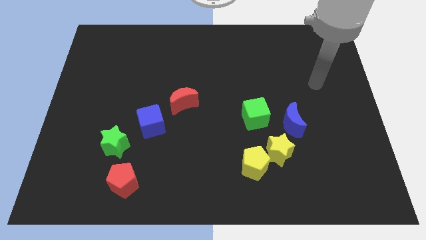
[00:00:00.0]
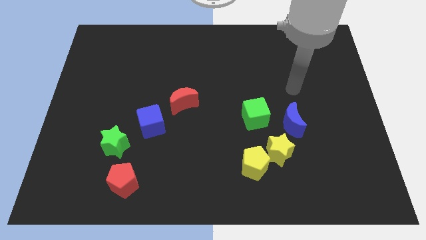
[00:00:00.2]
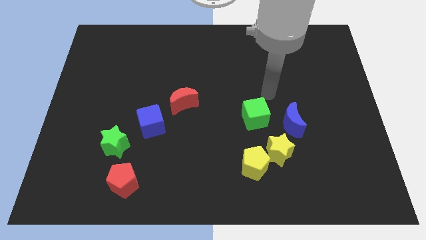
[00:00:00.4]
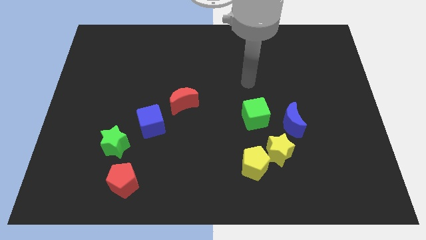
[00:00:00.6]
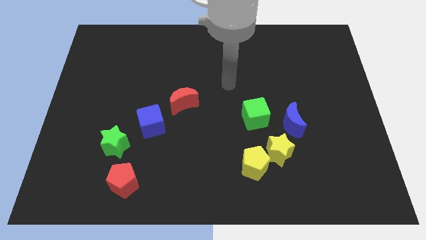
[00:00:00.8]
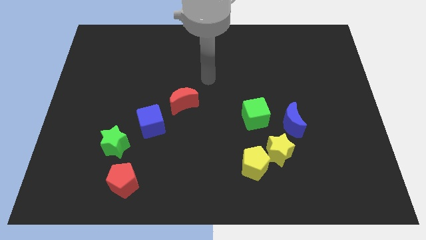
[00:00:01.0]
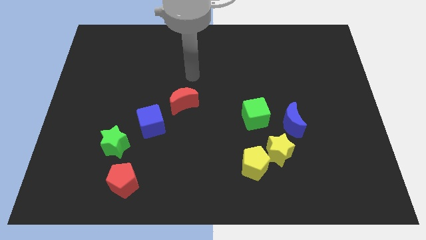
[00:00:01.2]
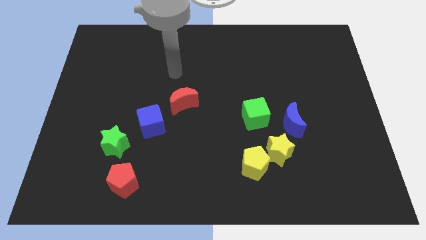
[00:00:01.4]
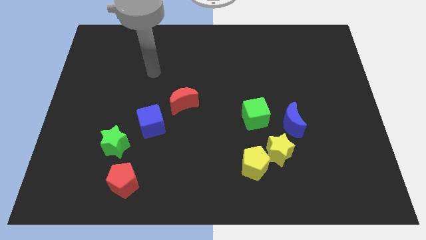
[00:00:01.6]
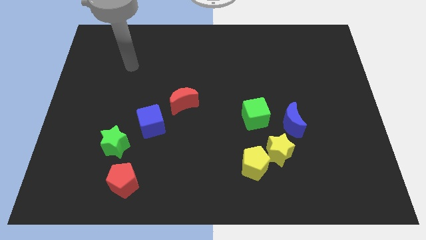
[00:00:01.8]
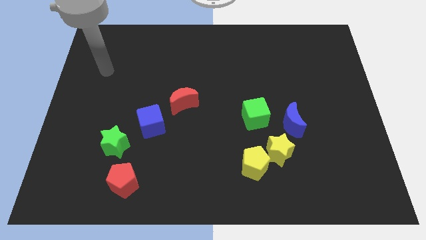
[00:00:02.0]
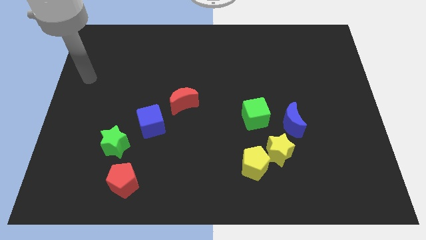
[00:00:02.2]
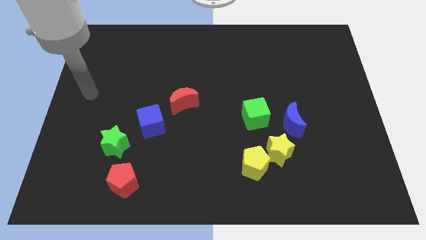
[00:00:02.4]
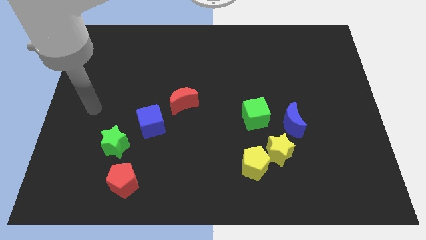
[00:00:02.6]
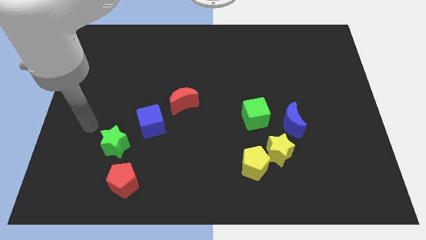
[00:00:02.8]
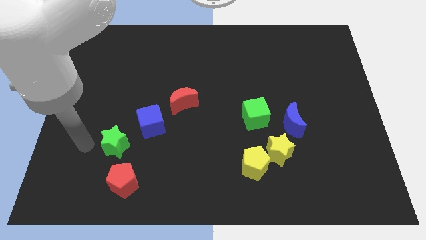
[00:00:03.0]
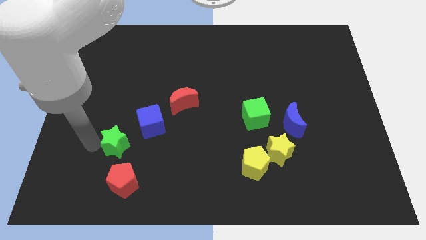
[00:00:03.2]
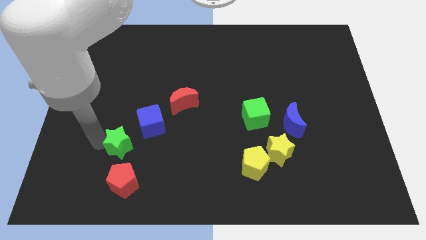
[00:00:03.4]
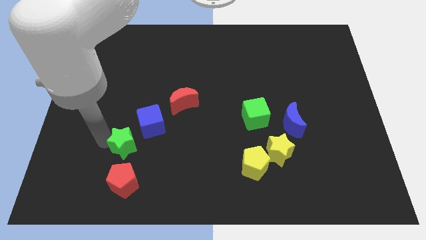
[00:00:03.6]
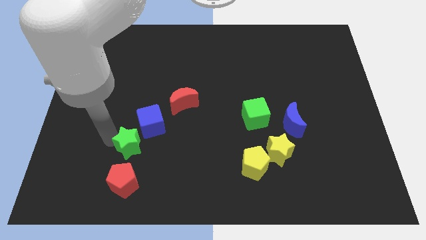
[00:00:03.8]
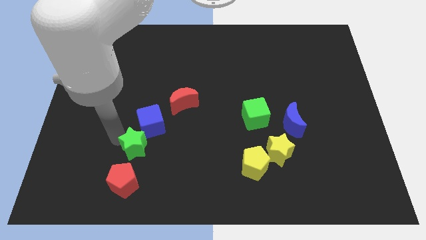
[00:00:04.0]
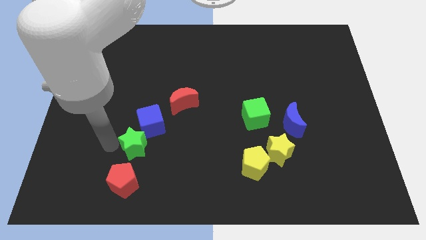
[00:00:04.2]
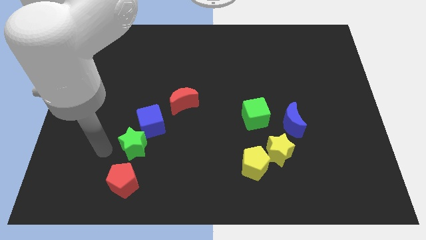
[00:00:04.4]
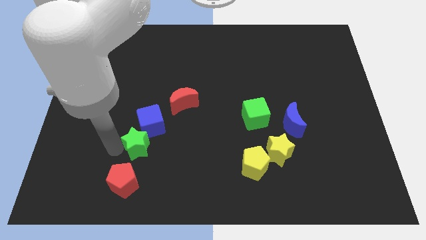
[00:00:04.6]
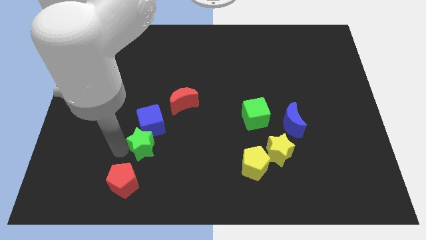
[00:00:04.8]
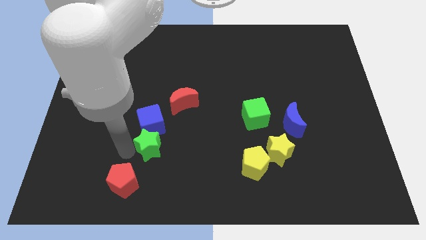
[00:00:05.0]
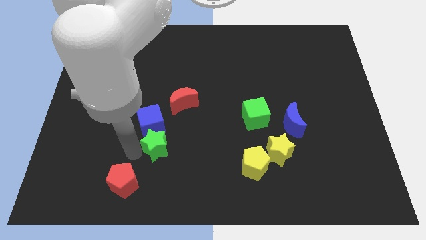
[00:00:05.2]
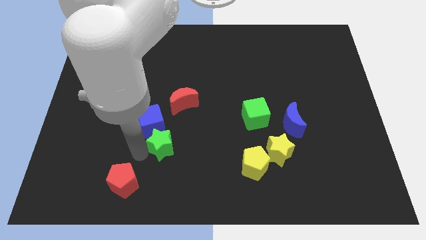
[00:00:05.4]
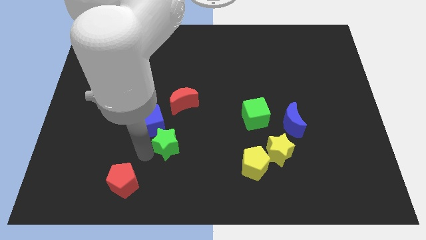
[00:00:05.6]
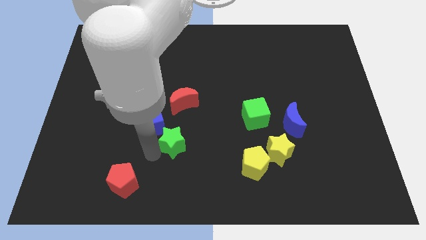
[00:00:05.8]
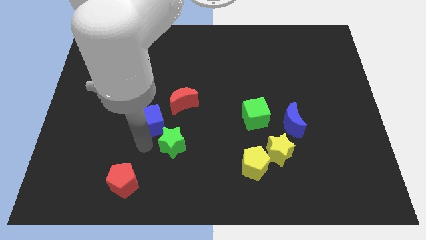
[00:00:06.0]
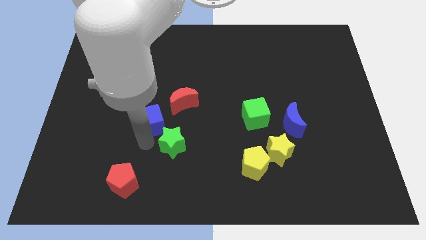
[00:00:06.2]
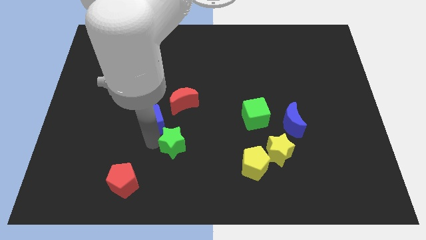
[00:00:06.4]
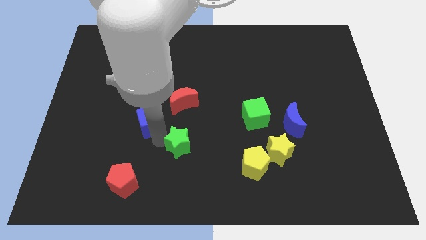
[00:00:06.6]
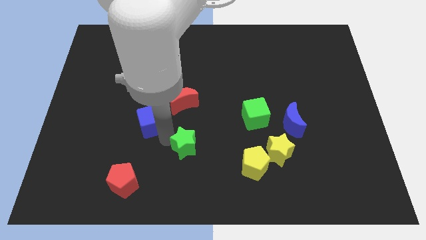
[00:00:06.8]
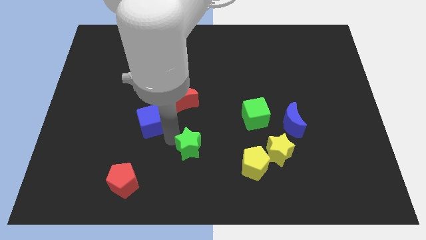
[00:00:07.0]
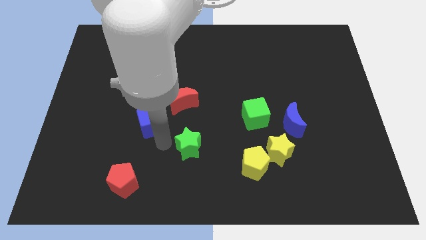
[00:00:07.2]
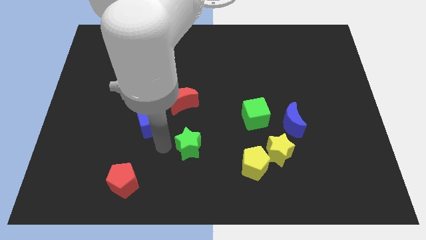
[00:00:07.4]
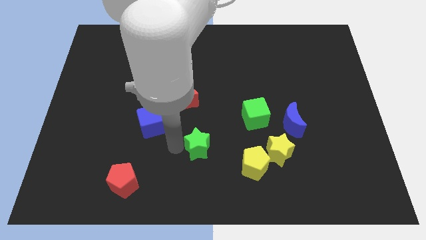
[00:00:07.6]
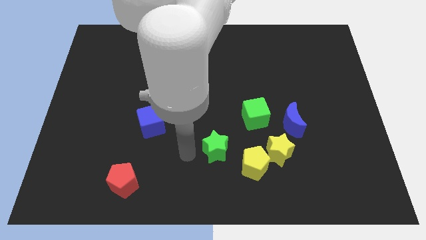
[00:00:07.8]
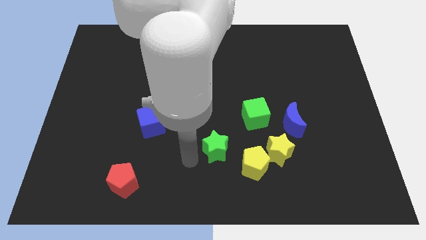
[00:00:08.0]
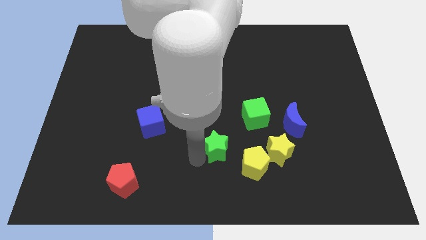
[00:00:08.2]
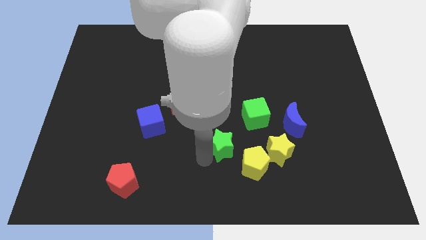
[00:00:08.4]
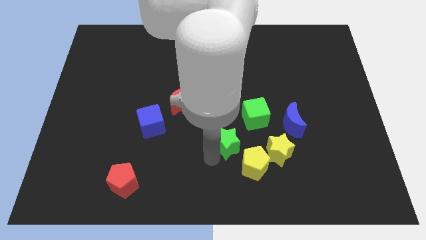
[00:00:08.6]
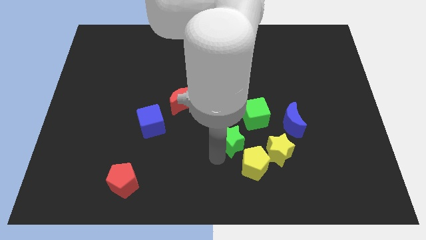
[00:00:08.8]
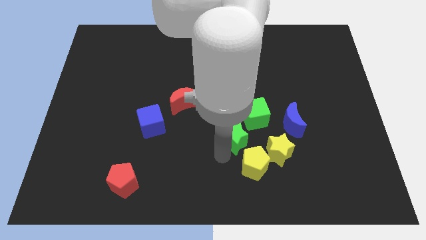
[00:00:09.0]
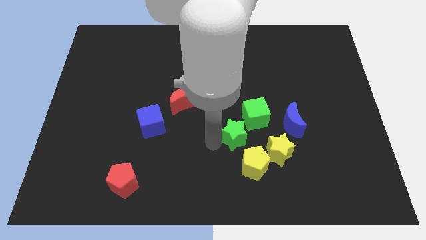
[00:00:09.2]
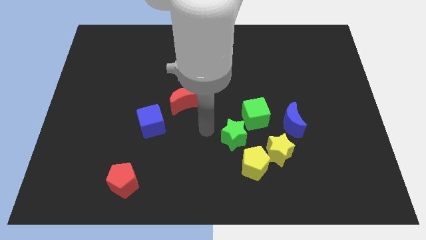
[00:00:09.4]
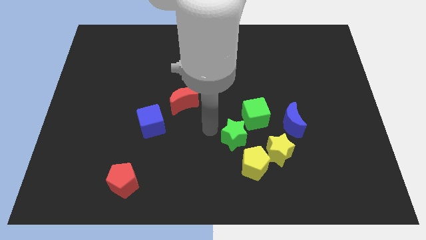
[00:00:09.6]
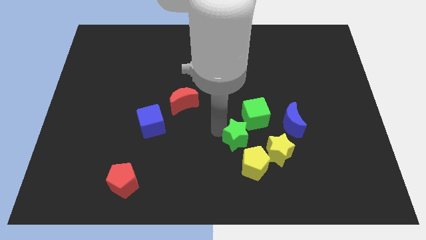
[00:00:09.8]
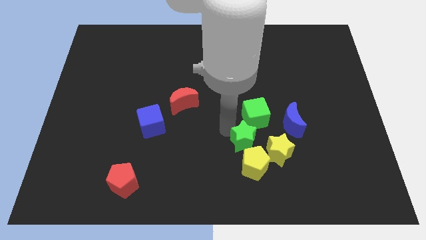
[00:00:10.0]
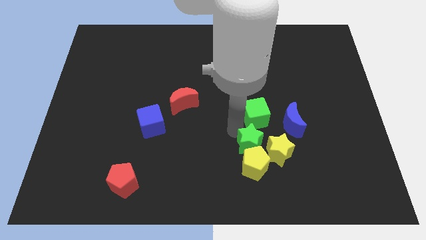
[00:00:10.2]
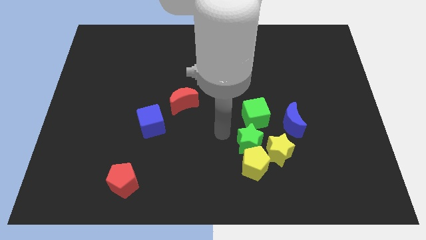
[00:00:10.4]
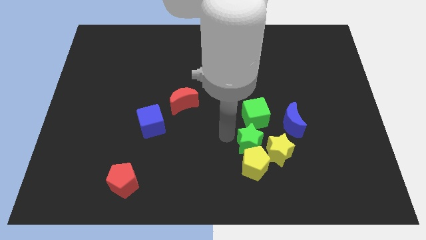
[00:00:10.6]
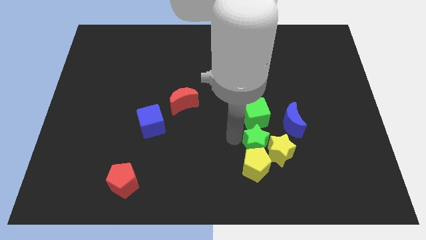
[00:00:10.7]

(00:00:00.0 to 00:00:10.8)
push the green star next to the yellow star
